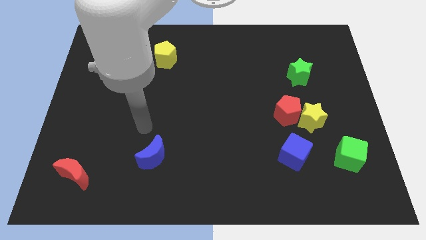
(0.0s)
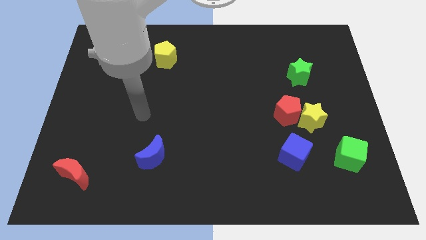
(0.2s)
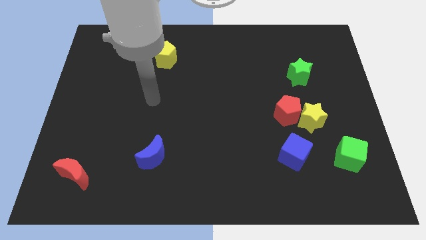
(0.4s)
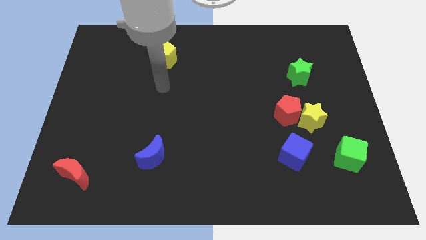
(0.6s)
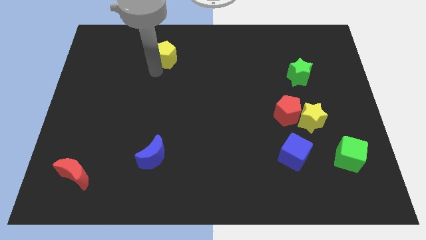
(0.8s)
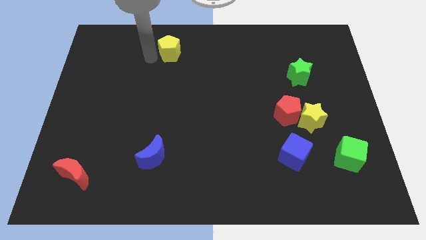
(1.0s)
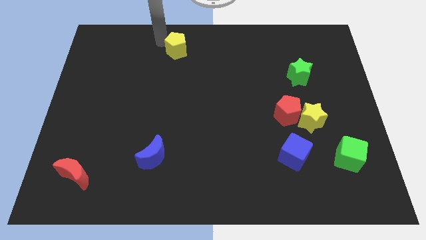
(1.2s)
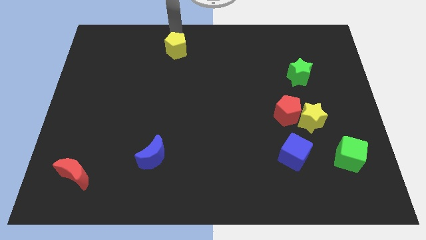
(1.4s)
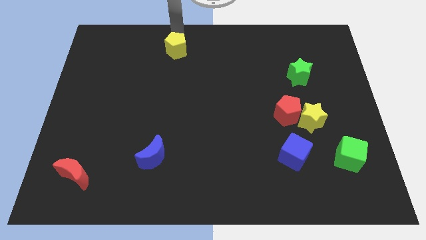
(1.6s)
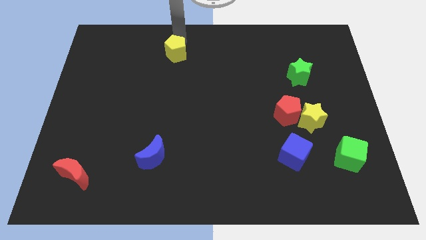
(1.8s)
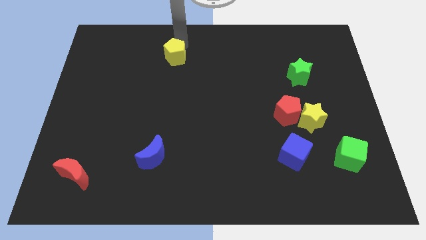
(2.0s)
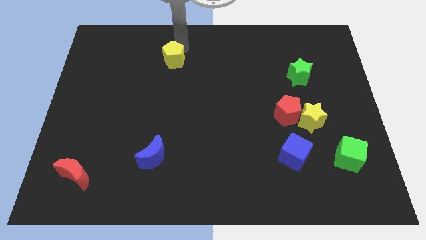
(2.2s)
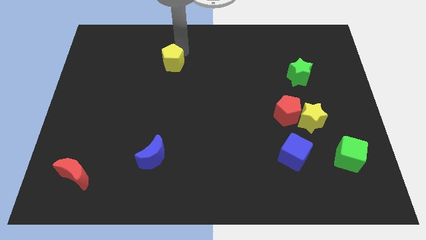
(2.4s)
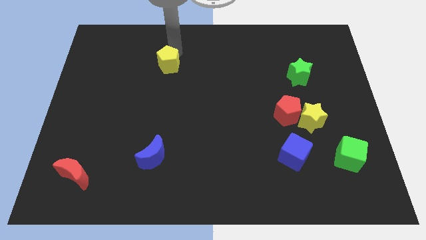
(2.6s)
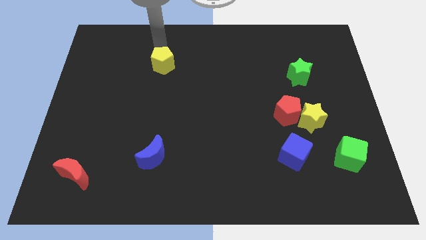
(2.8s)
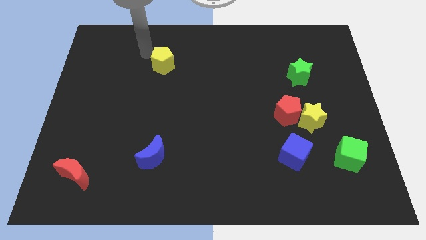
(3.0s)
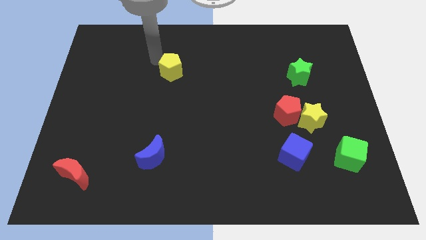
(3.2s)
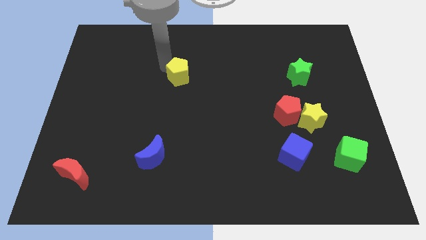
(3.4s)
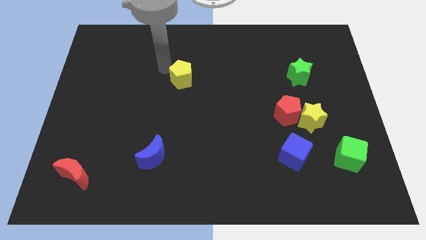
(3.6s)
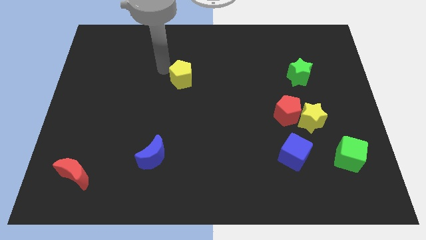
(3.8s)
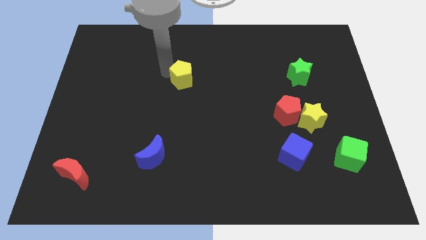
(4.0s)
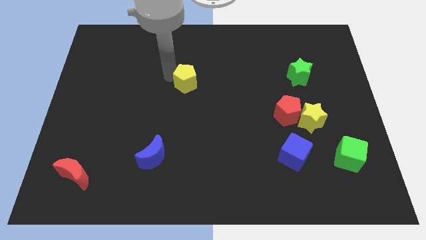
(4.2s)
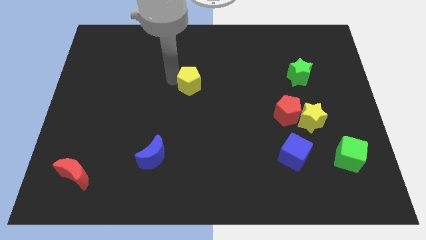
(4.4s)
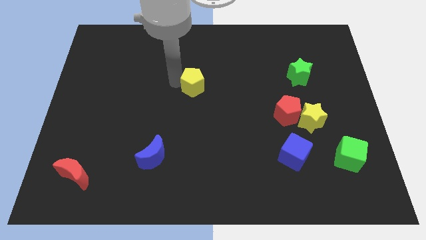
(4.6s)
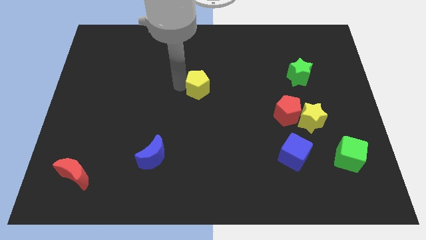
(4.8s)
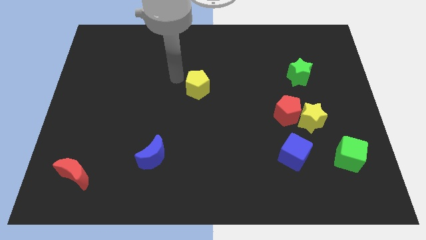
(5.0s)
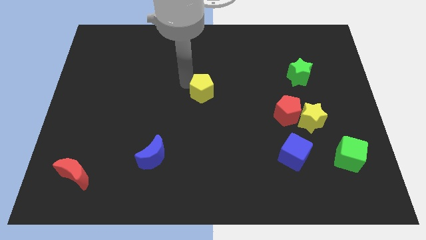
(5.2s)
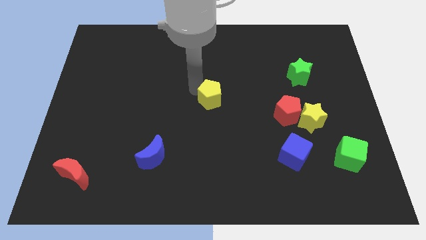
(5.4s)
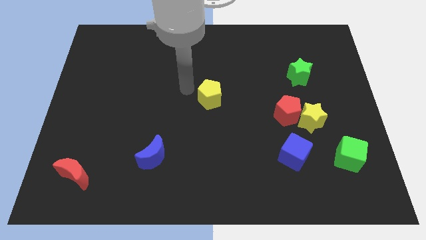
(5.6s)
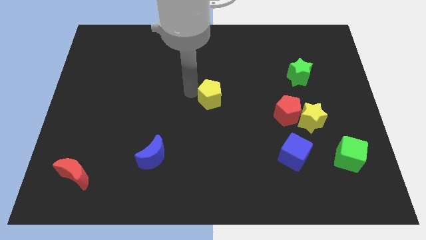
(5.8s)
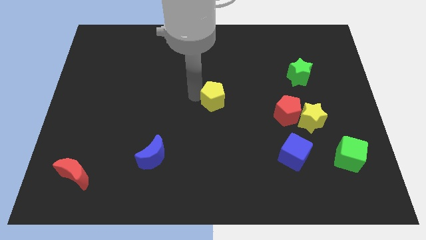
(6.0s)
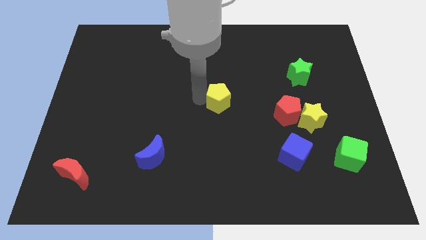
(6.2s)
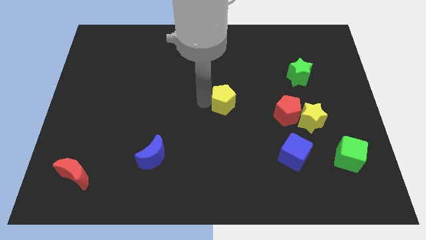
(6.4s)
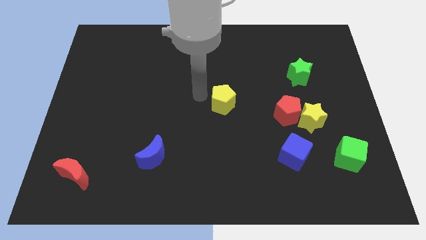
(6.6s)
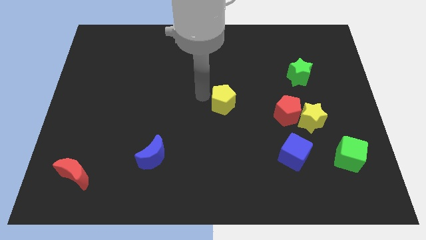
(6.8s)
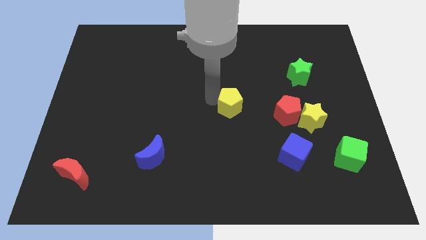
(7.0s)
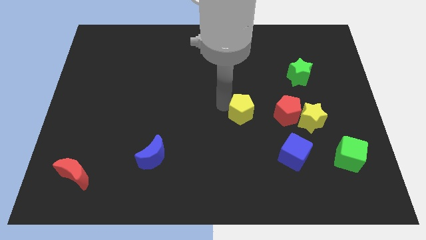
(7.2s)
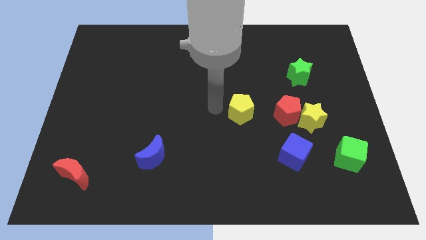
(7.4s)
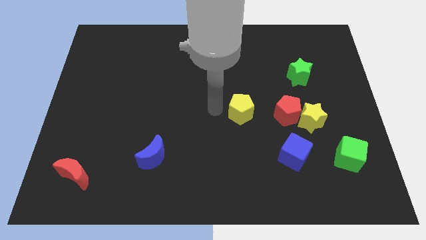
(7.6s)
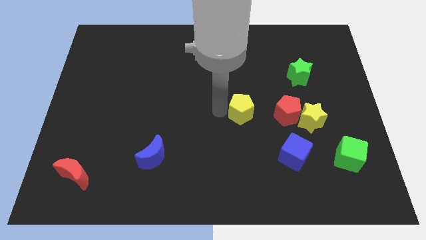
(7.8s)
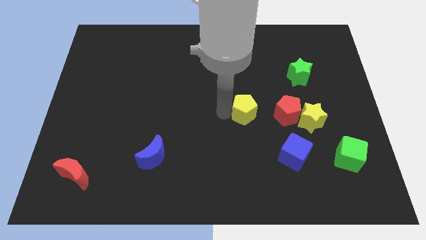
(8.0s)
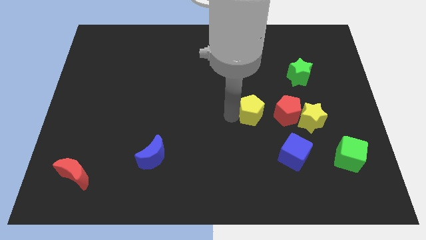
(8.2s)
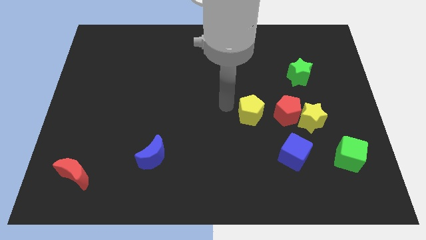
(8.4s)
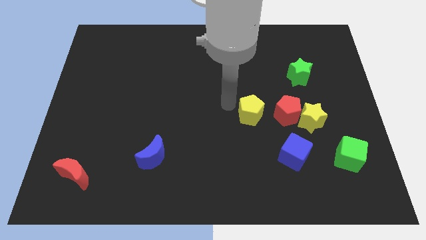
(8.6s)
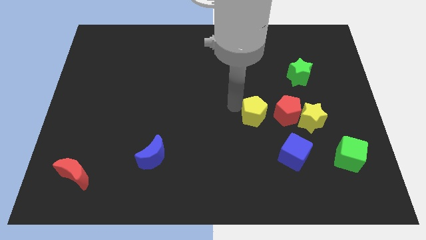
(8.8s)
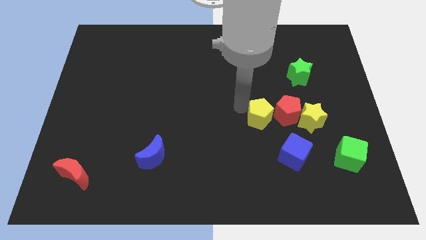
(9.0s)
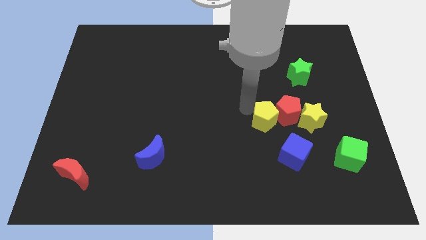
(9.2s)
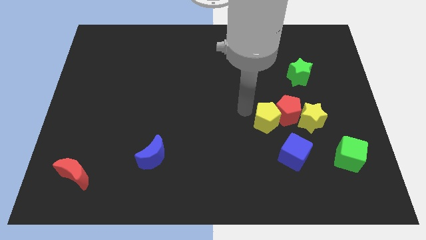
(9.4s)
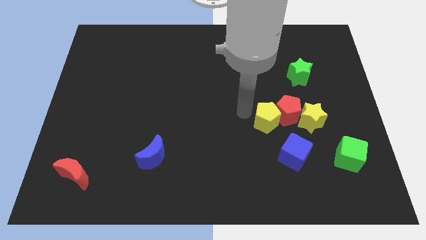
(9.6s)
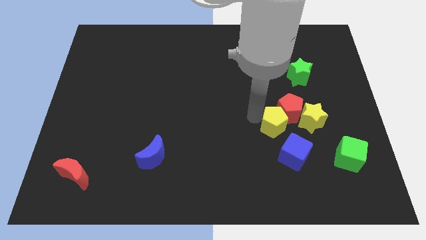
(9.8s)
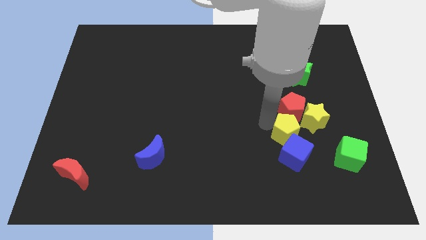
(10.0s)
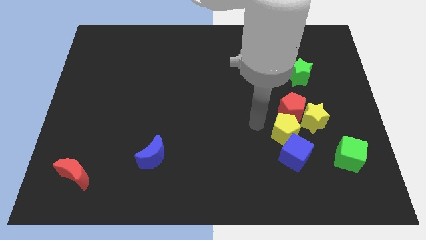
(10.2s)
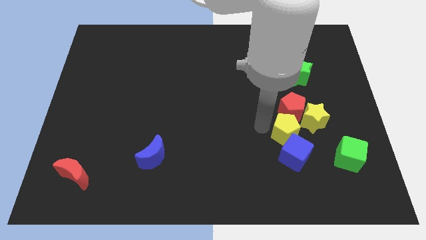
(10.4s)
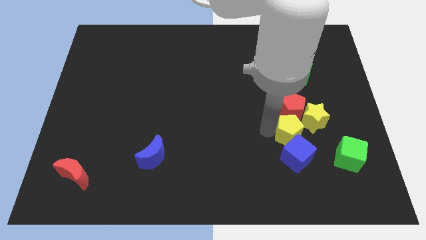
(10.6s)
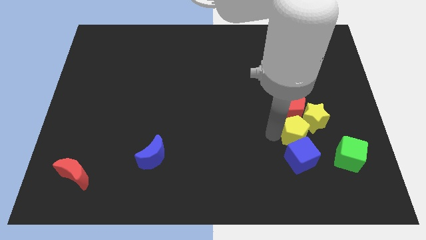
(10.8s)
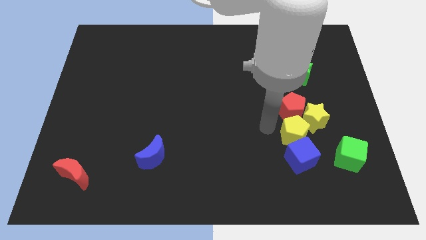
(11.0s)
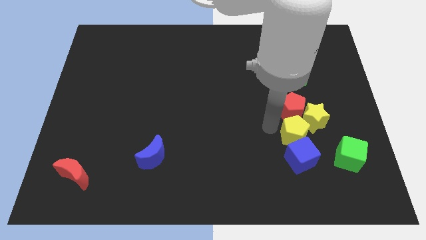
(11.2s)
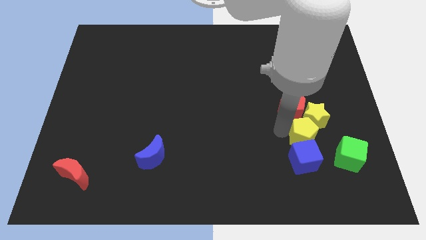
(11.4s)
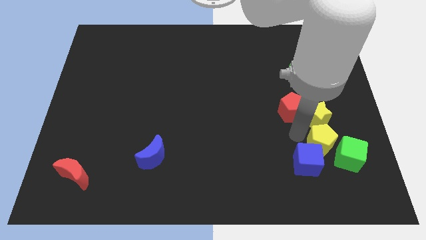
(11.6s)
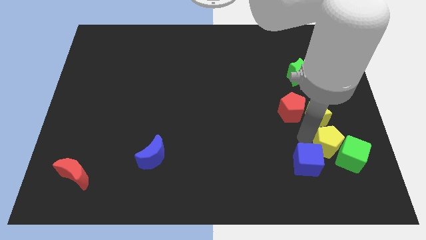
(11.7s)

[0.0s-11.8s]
move the yellow pentagon towards the green cube
